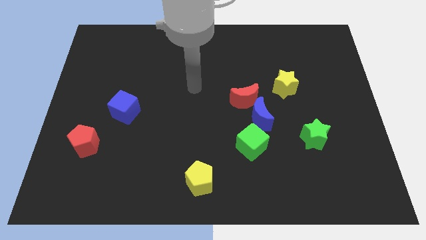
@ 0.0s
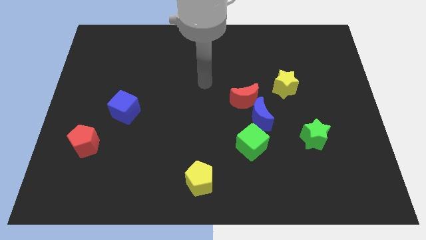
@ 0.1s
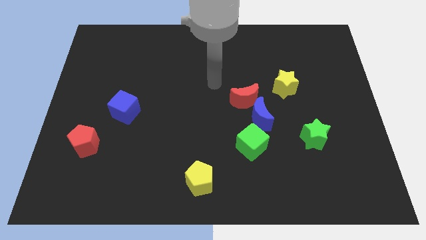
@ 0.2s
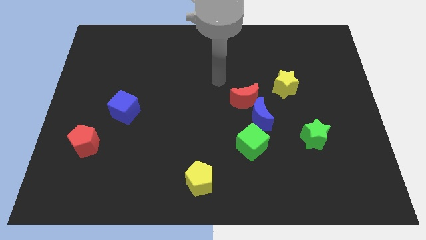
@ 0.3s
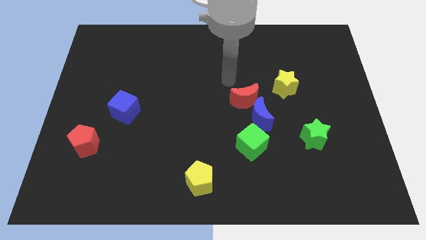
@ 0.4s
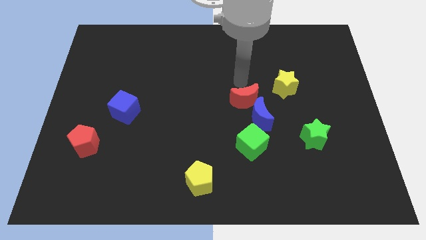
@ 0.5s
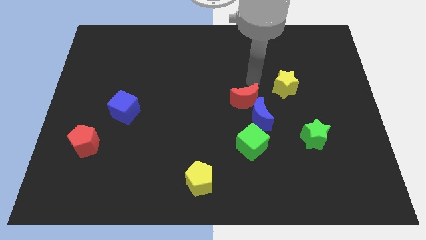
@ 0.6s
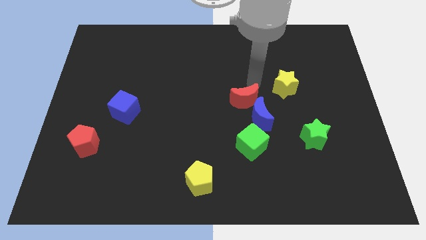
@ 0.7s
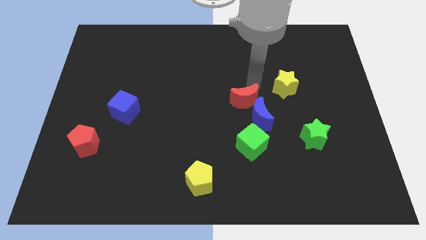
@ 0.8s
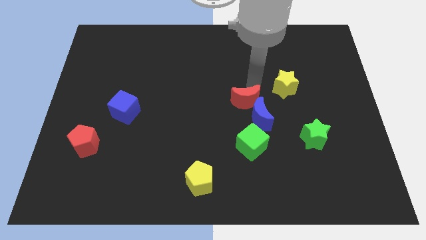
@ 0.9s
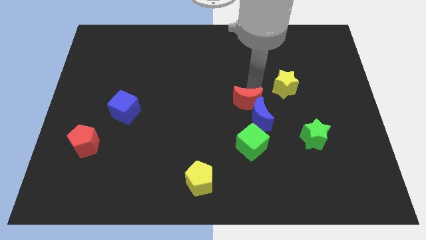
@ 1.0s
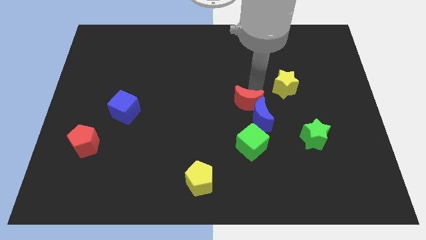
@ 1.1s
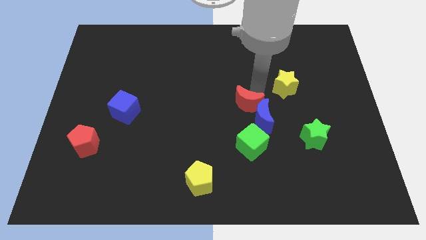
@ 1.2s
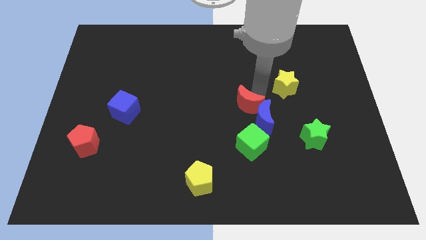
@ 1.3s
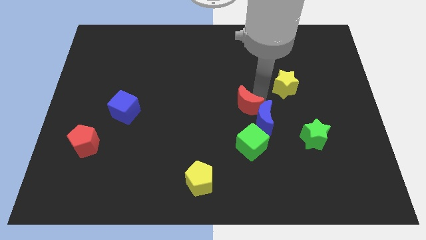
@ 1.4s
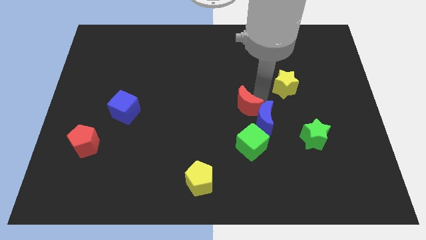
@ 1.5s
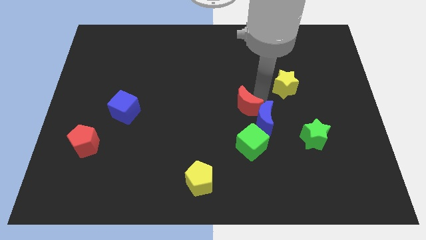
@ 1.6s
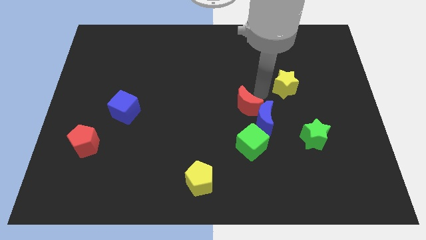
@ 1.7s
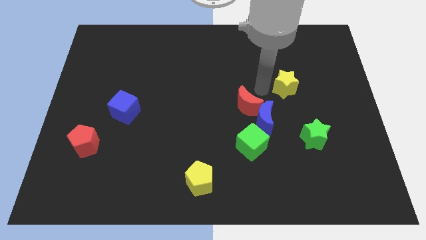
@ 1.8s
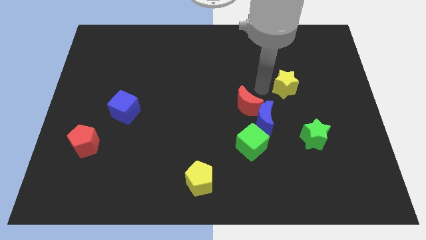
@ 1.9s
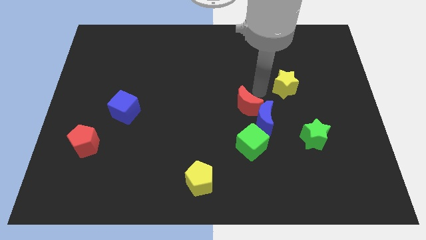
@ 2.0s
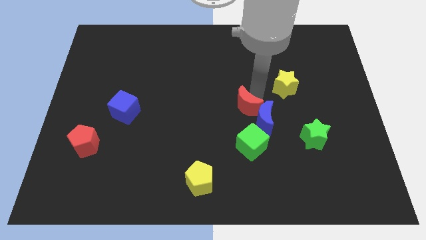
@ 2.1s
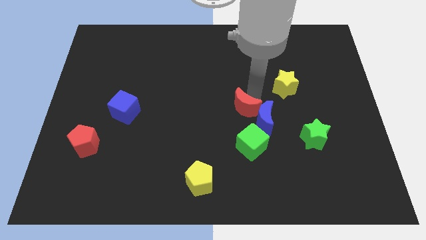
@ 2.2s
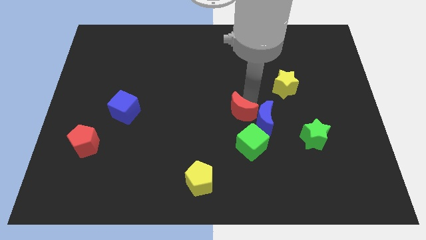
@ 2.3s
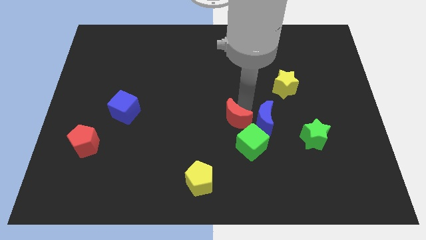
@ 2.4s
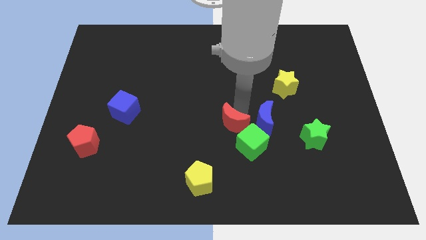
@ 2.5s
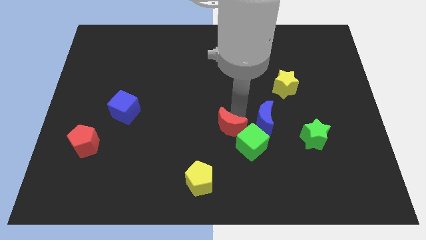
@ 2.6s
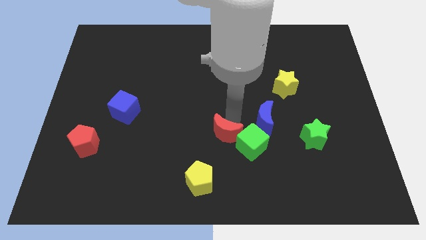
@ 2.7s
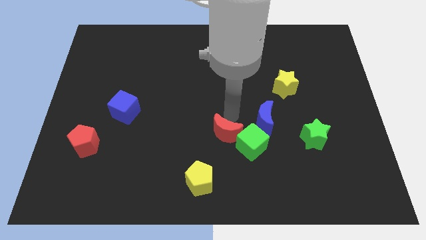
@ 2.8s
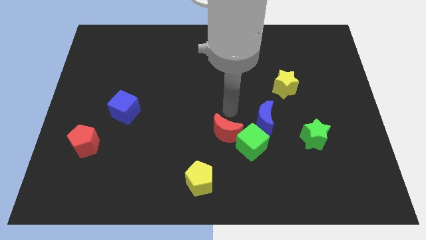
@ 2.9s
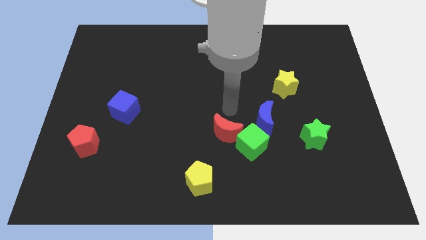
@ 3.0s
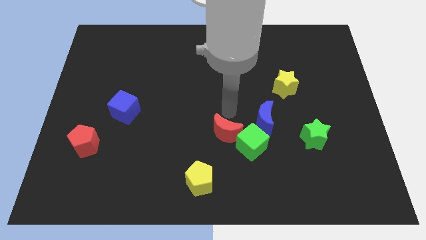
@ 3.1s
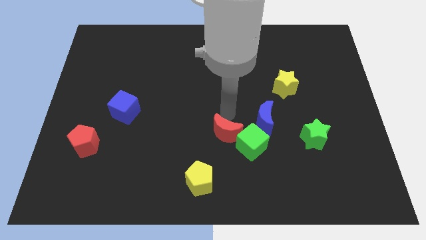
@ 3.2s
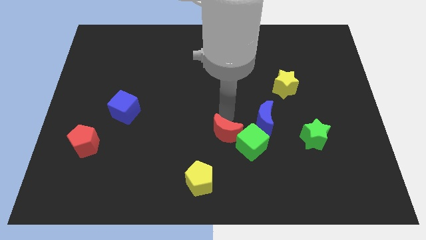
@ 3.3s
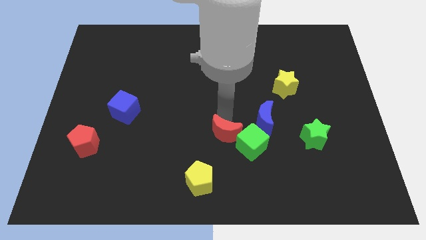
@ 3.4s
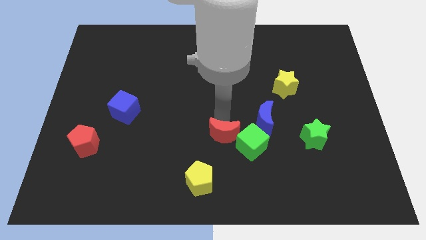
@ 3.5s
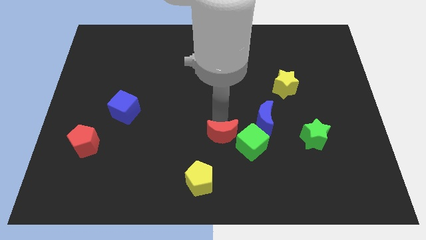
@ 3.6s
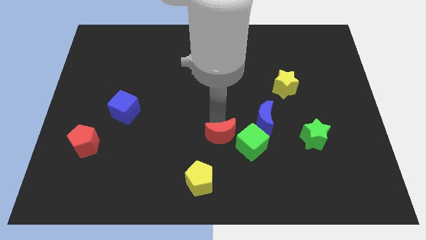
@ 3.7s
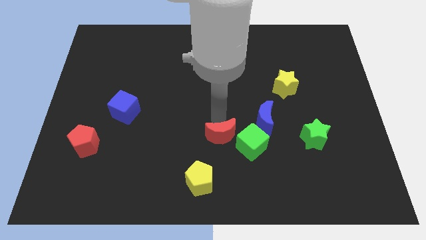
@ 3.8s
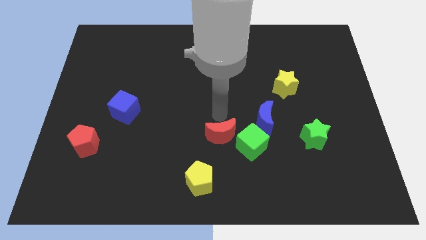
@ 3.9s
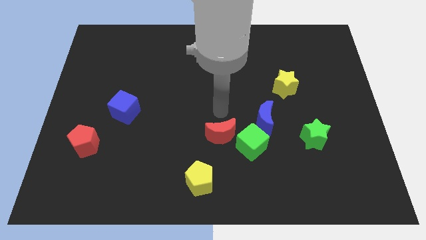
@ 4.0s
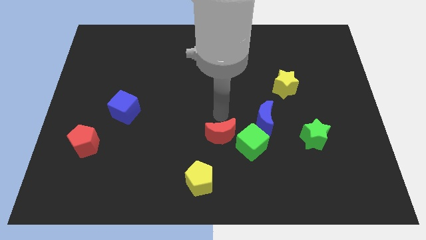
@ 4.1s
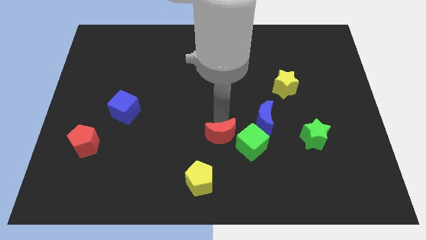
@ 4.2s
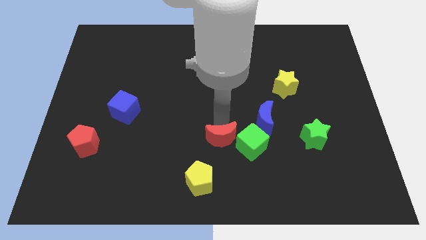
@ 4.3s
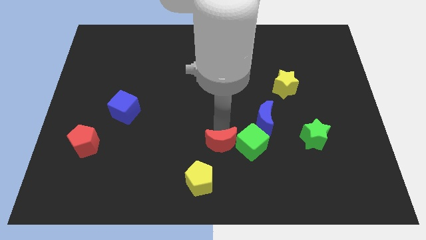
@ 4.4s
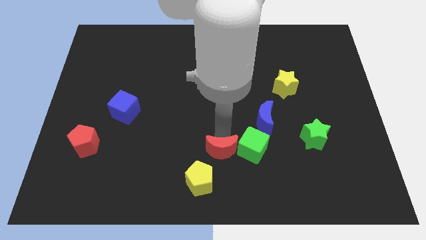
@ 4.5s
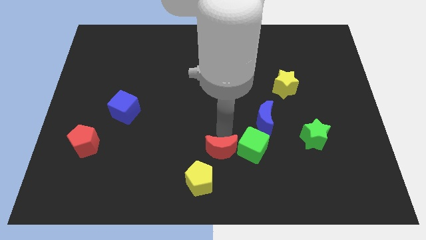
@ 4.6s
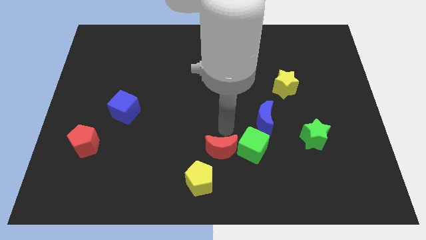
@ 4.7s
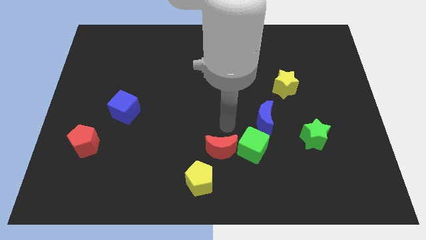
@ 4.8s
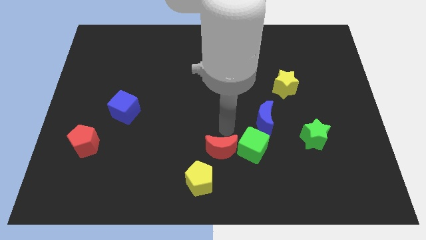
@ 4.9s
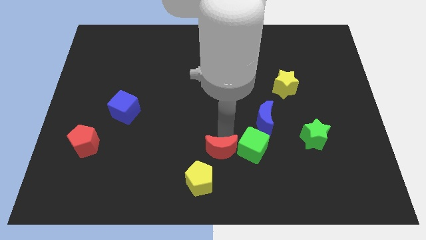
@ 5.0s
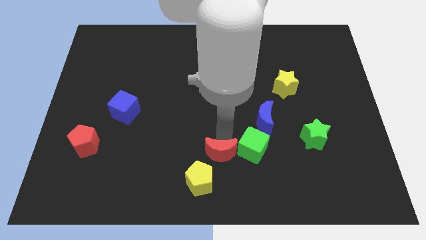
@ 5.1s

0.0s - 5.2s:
push the red moon to the bottom side

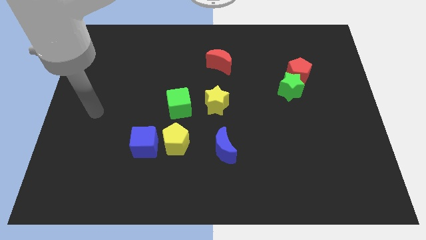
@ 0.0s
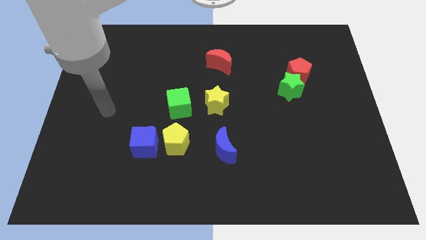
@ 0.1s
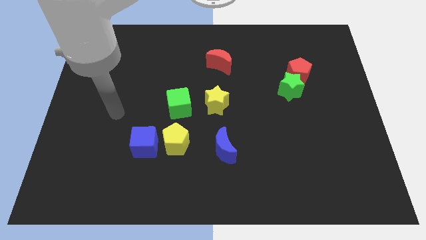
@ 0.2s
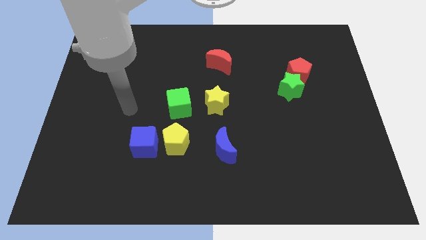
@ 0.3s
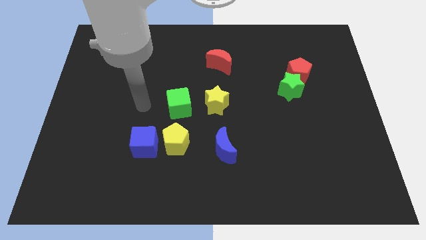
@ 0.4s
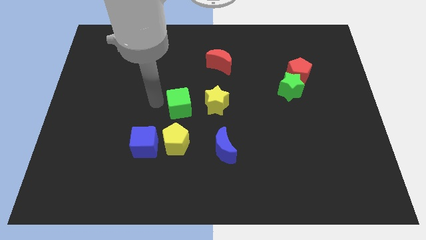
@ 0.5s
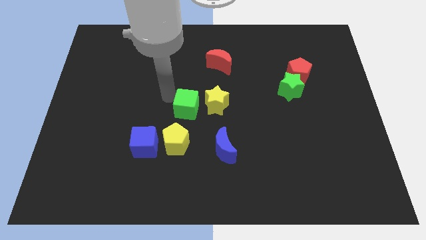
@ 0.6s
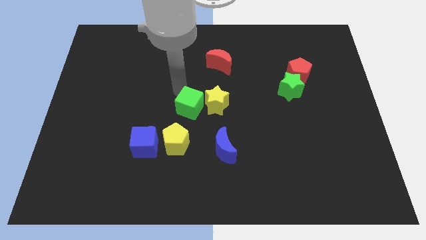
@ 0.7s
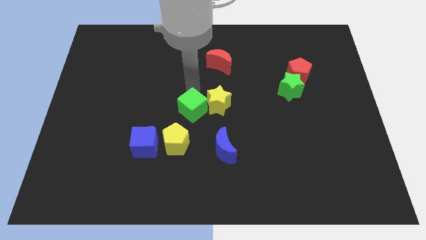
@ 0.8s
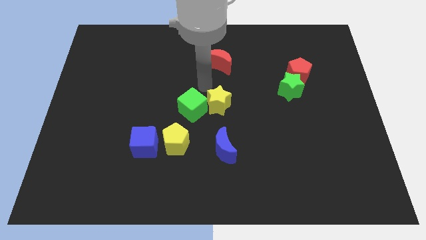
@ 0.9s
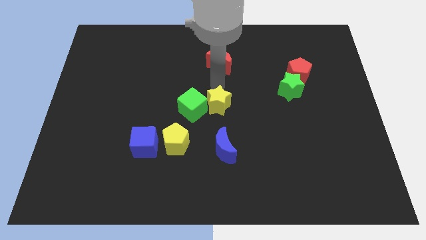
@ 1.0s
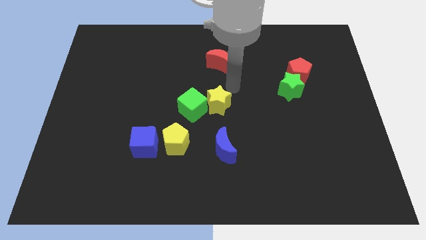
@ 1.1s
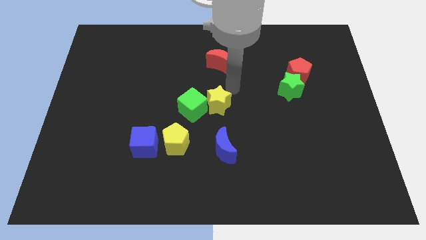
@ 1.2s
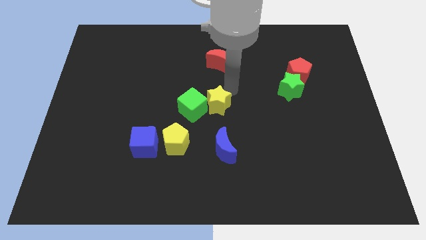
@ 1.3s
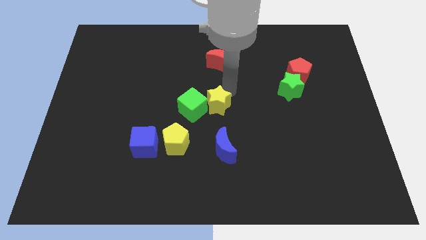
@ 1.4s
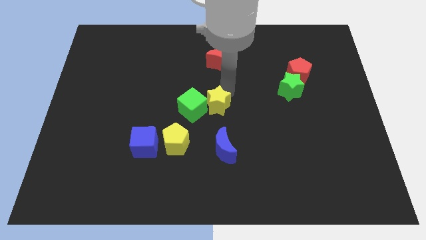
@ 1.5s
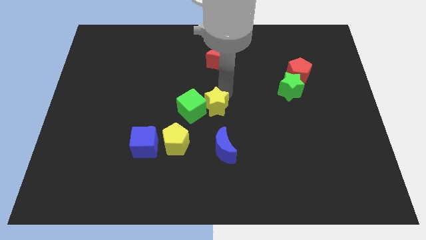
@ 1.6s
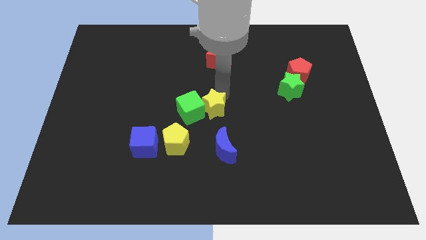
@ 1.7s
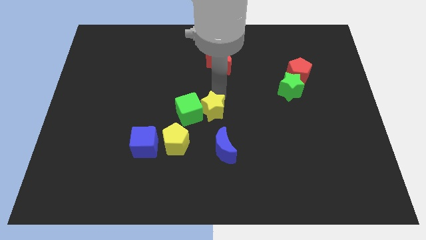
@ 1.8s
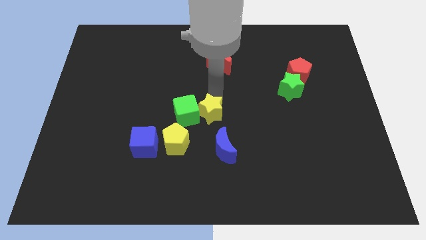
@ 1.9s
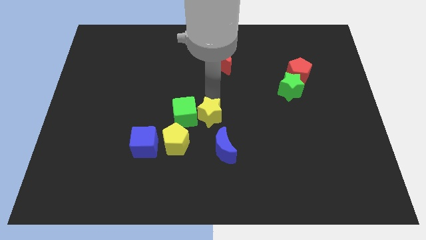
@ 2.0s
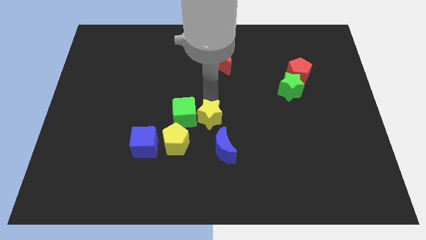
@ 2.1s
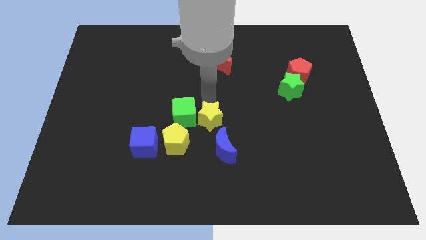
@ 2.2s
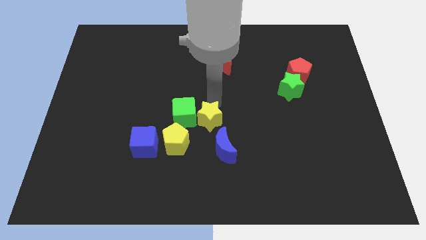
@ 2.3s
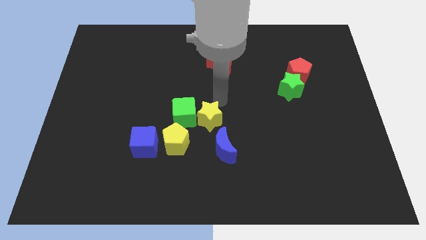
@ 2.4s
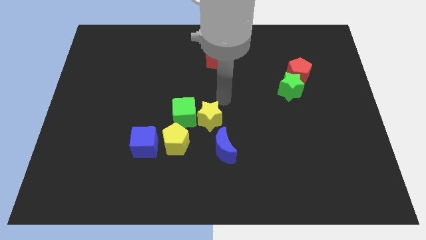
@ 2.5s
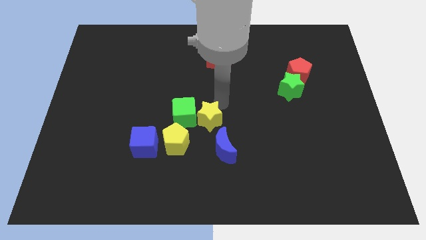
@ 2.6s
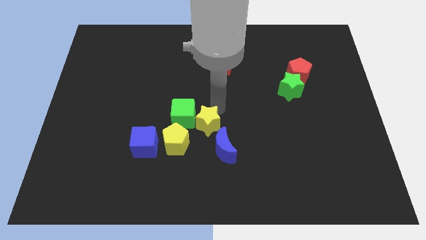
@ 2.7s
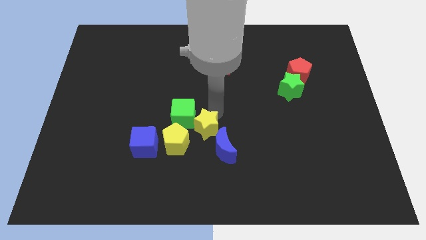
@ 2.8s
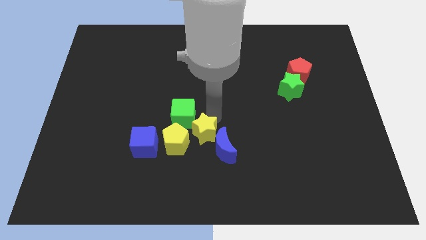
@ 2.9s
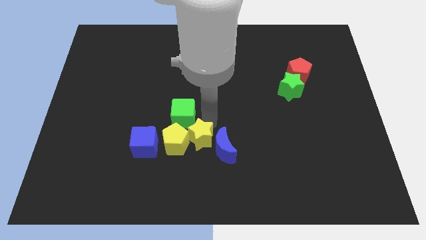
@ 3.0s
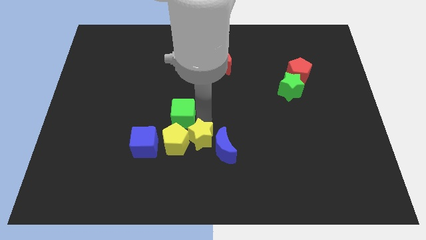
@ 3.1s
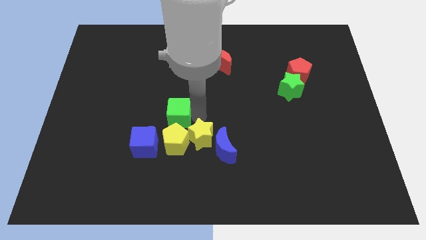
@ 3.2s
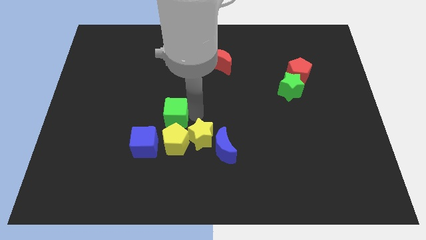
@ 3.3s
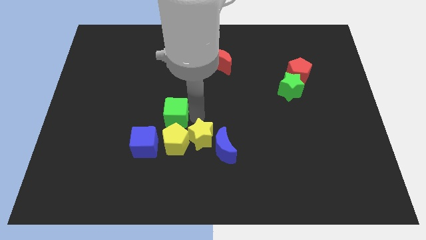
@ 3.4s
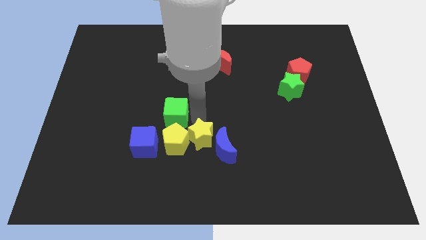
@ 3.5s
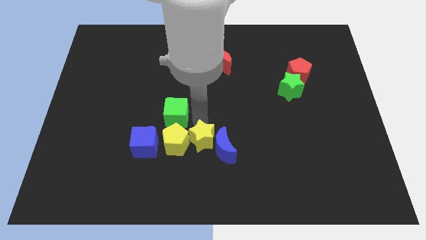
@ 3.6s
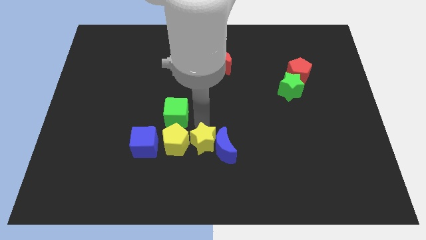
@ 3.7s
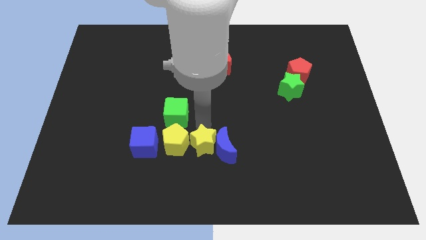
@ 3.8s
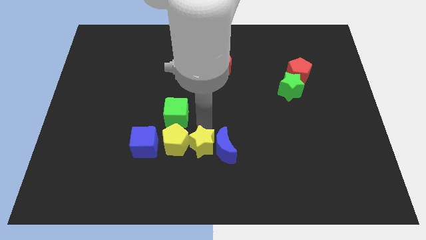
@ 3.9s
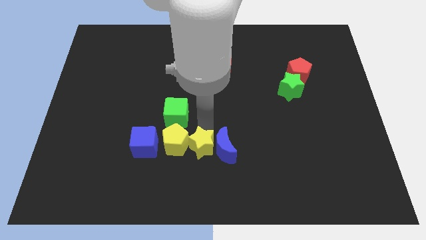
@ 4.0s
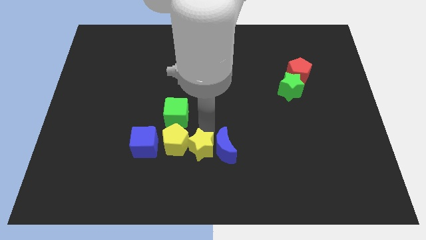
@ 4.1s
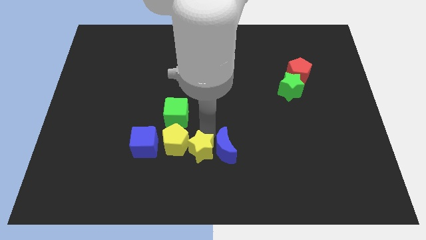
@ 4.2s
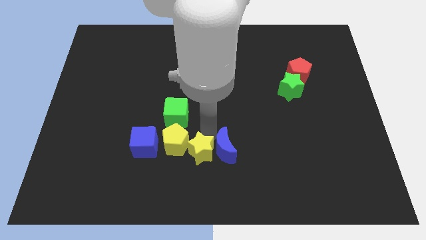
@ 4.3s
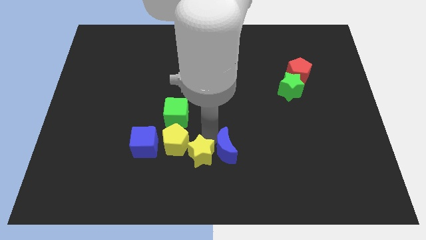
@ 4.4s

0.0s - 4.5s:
push the yellow star to the bottom side
